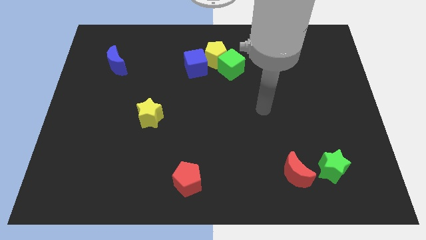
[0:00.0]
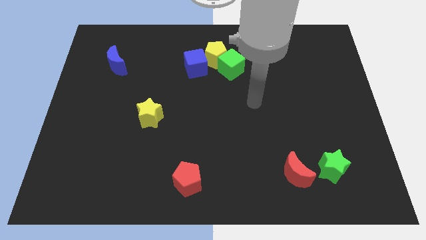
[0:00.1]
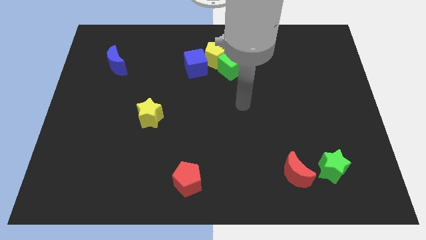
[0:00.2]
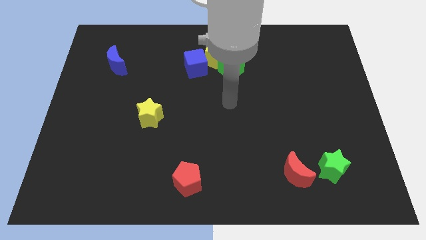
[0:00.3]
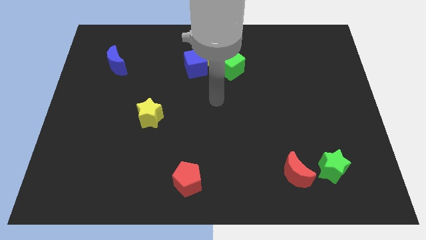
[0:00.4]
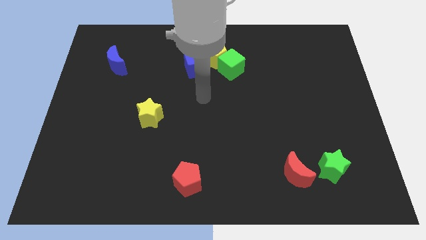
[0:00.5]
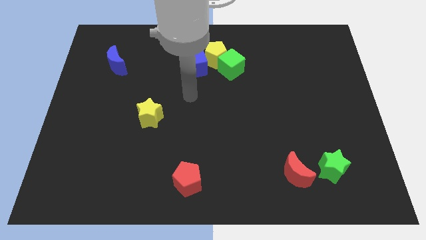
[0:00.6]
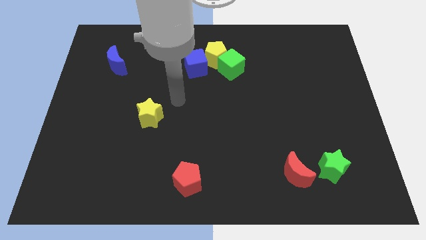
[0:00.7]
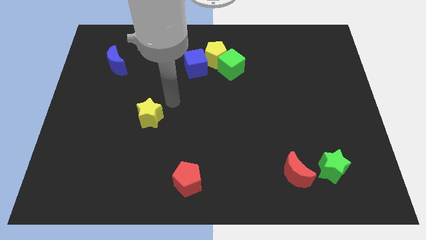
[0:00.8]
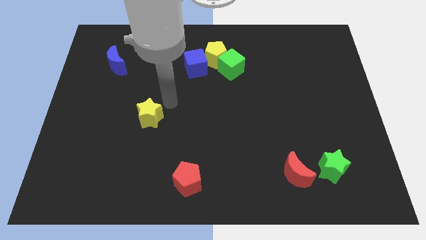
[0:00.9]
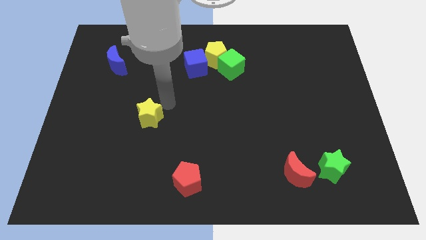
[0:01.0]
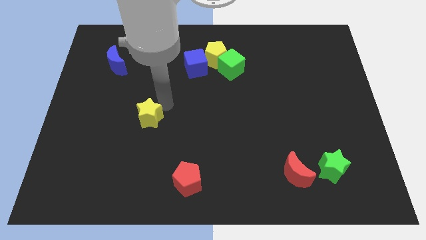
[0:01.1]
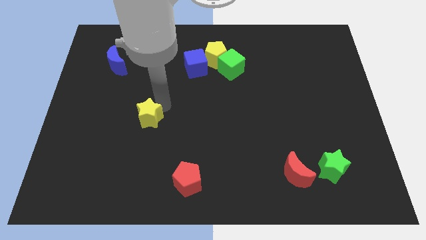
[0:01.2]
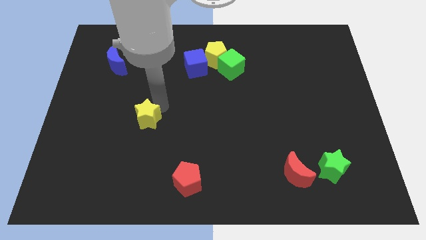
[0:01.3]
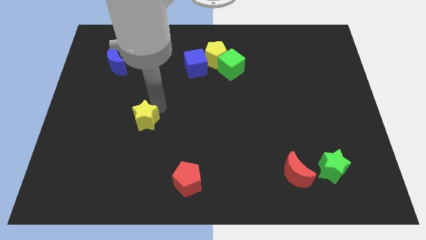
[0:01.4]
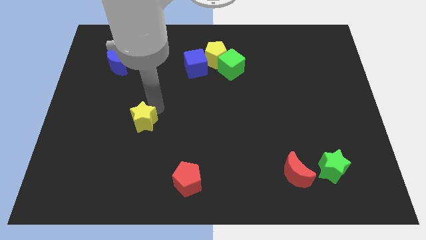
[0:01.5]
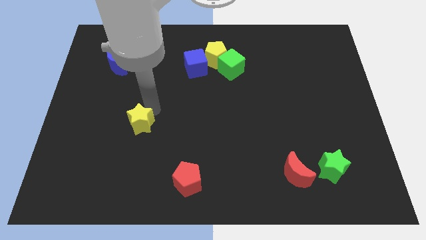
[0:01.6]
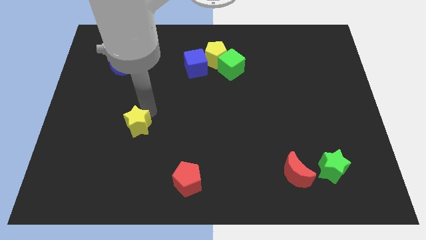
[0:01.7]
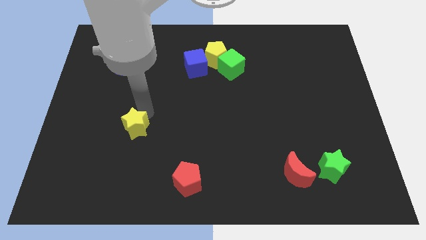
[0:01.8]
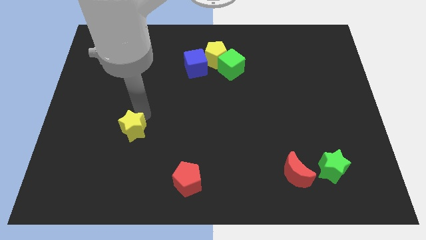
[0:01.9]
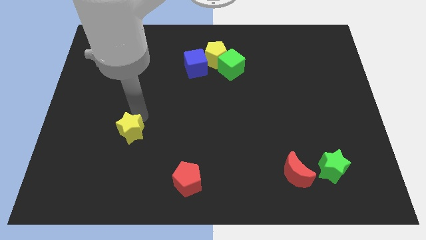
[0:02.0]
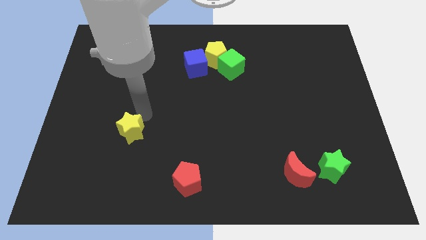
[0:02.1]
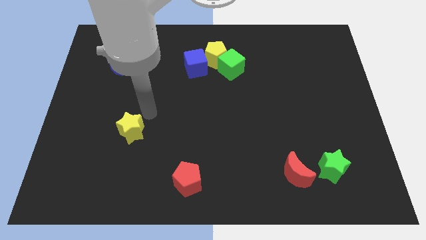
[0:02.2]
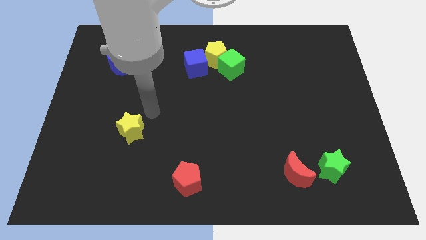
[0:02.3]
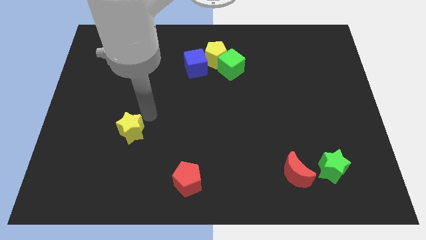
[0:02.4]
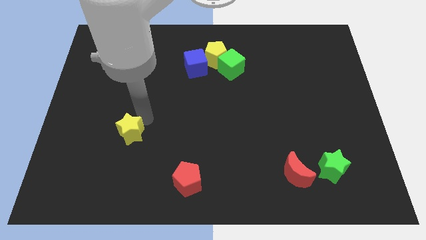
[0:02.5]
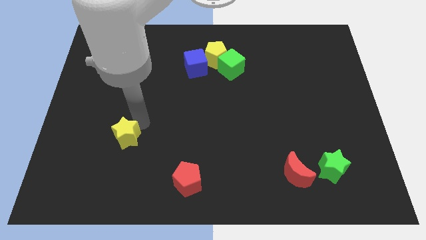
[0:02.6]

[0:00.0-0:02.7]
slightly slide the yellow star downwards and then to the left

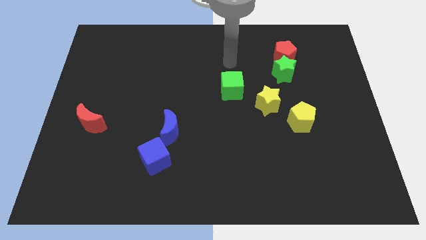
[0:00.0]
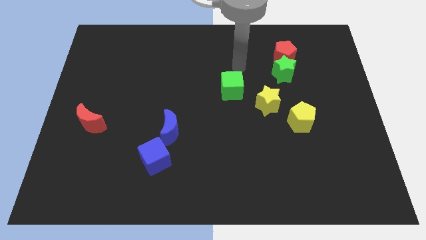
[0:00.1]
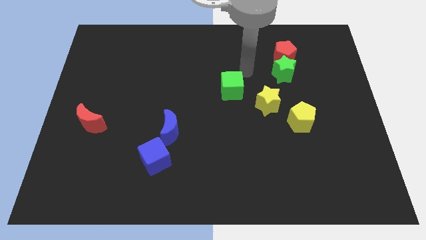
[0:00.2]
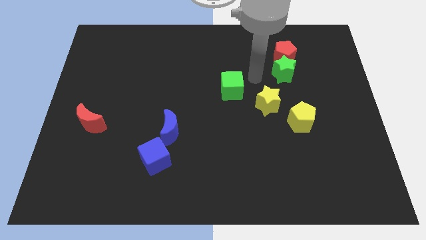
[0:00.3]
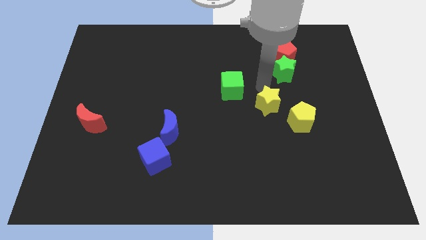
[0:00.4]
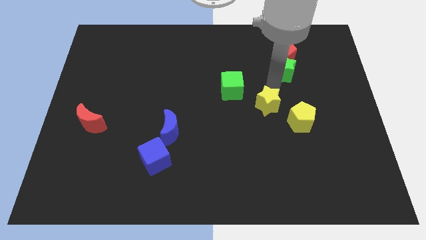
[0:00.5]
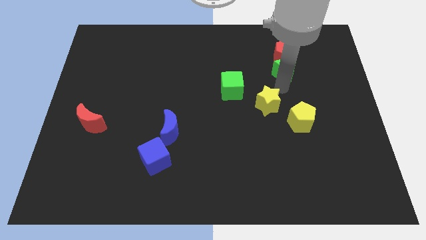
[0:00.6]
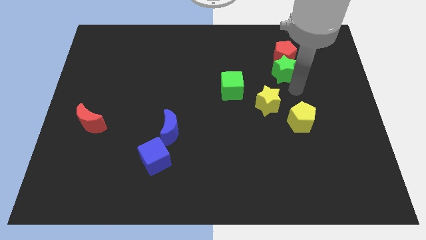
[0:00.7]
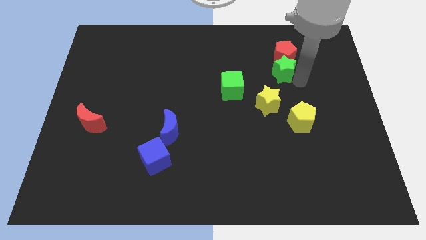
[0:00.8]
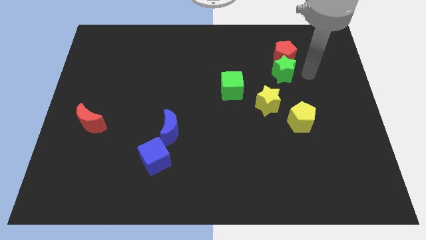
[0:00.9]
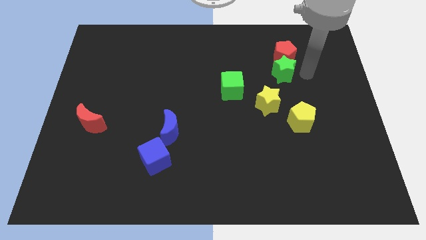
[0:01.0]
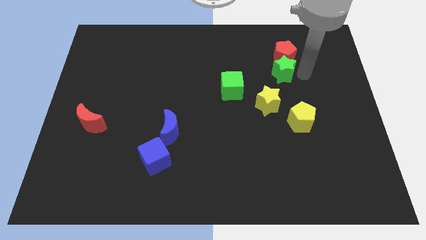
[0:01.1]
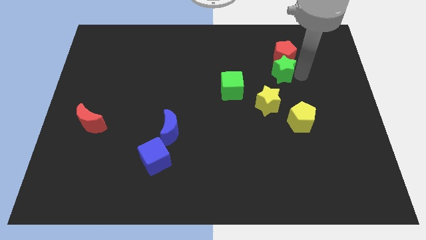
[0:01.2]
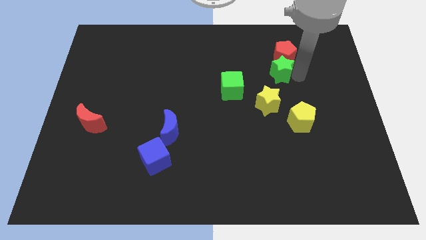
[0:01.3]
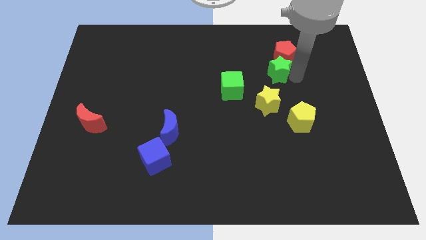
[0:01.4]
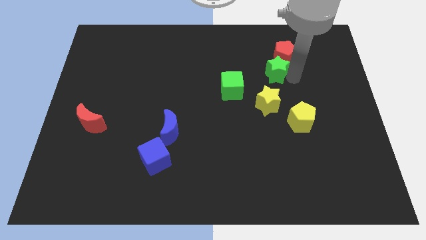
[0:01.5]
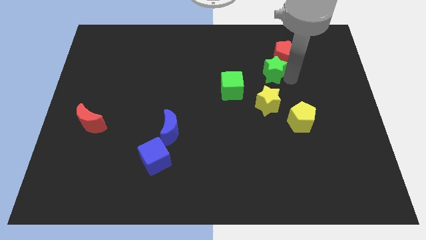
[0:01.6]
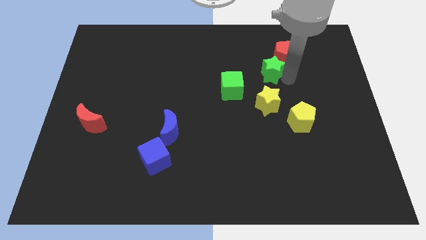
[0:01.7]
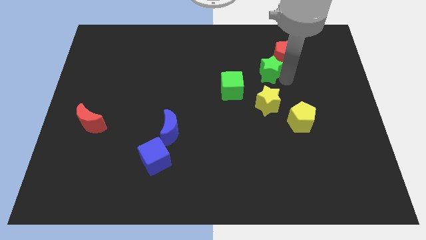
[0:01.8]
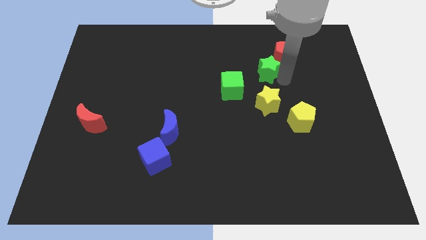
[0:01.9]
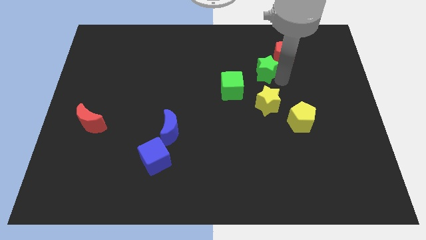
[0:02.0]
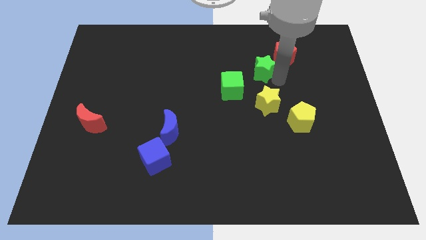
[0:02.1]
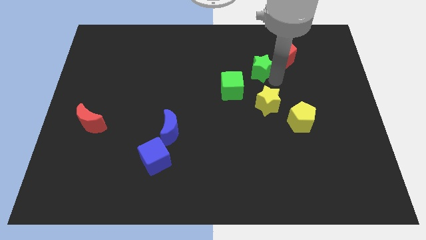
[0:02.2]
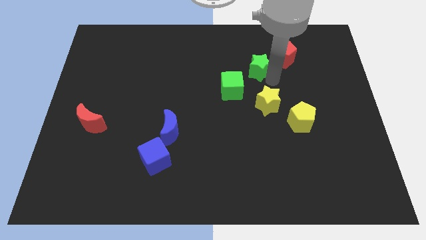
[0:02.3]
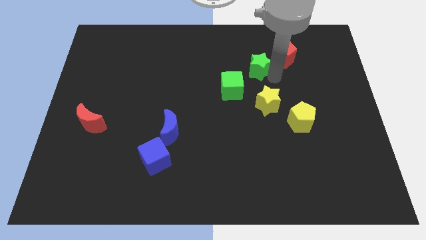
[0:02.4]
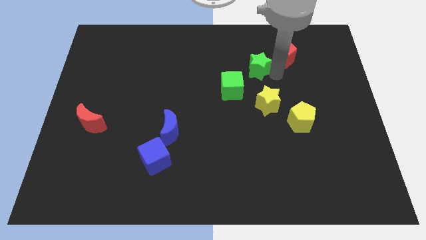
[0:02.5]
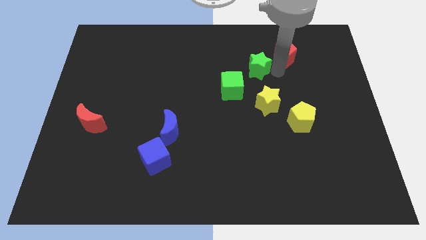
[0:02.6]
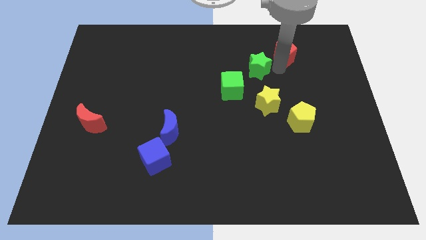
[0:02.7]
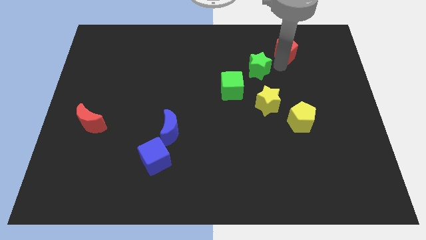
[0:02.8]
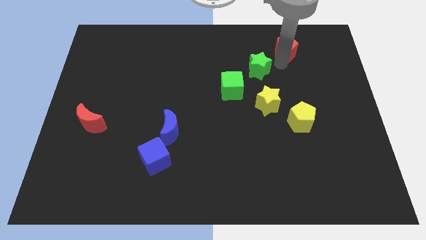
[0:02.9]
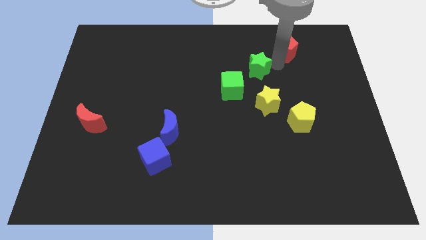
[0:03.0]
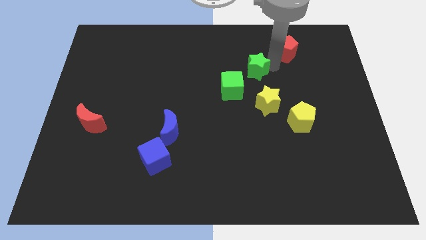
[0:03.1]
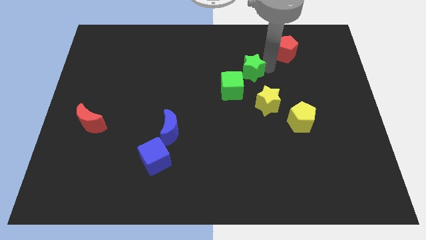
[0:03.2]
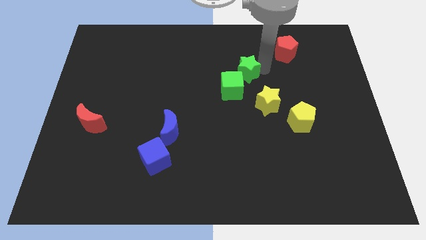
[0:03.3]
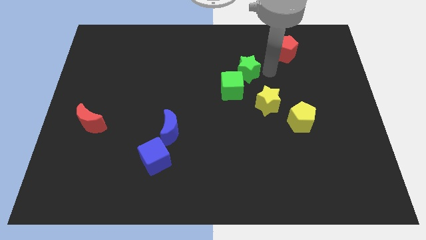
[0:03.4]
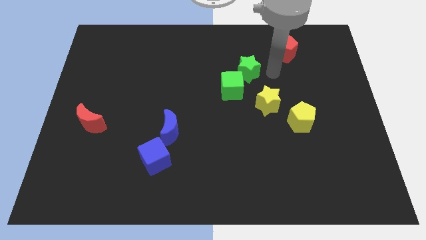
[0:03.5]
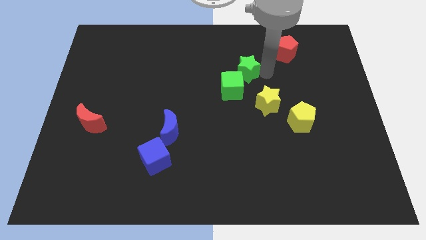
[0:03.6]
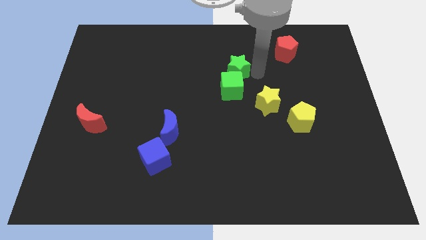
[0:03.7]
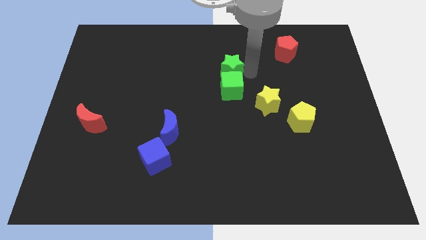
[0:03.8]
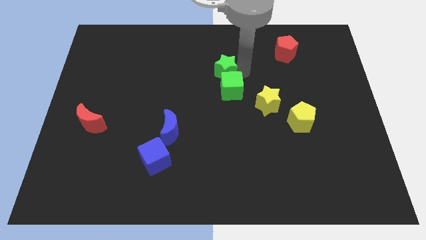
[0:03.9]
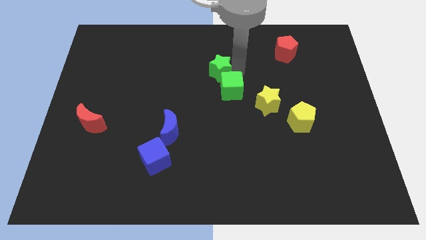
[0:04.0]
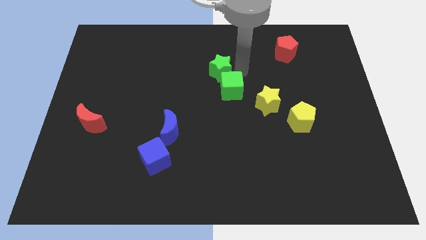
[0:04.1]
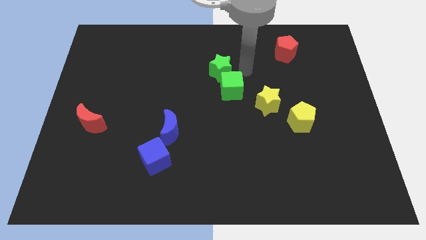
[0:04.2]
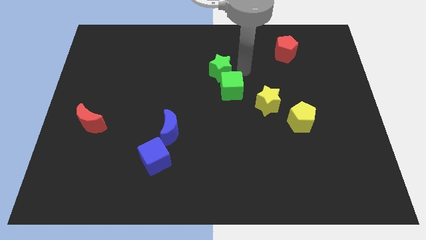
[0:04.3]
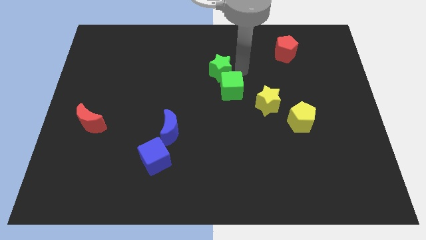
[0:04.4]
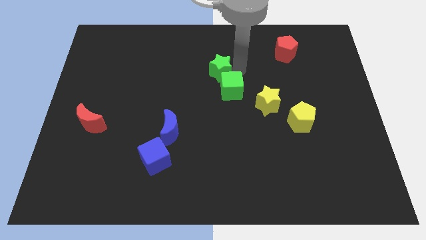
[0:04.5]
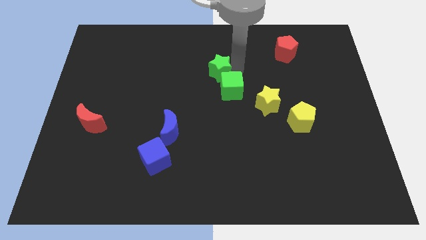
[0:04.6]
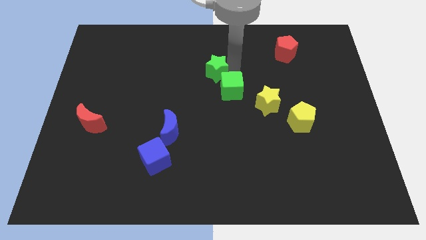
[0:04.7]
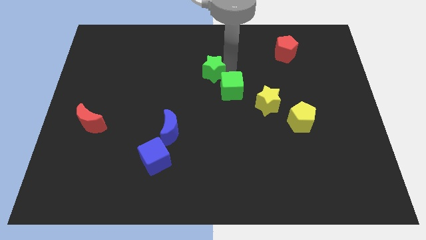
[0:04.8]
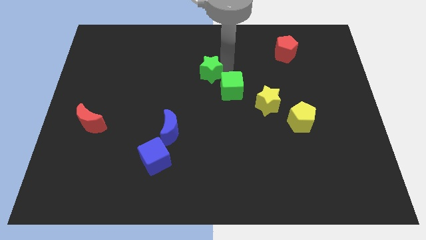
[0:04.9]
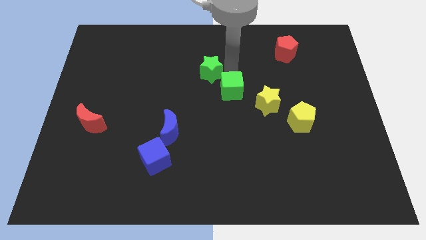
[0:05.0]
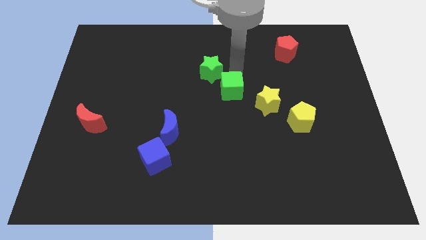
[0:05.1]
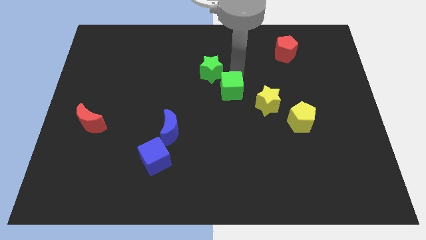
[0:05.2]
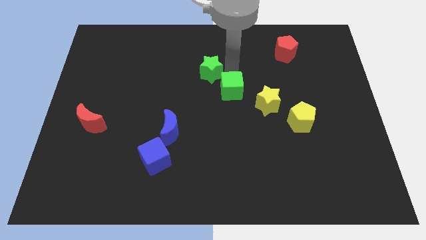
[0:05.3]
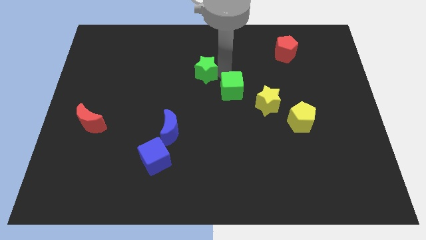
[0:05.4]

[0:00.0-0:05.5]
slide the green star left
